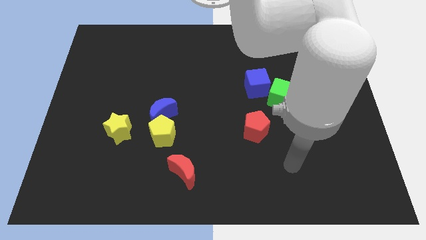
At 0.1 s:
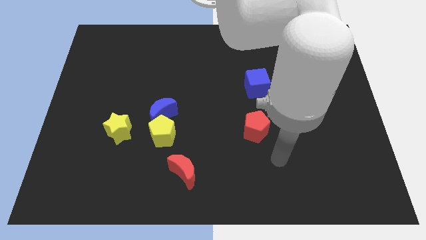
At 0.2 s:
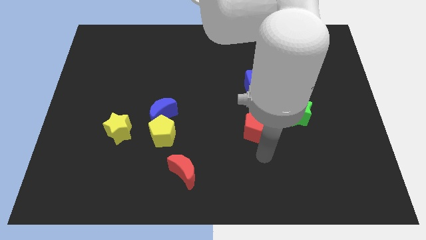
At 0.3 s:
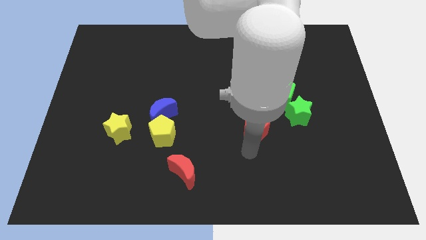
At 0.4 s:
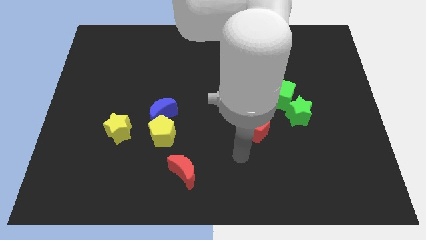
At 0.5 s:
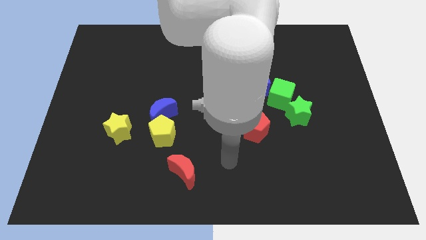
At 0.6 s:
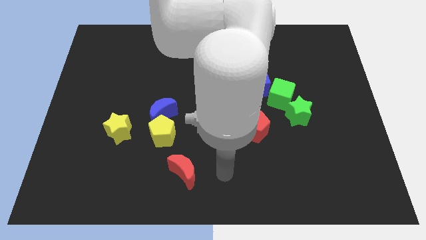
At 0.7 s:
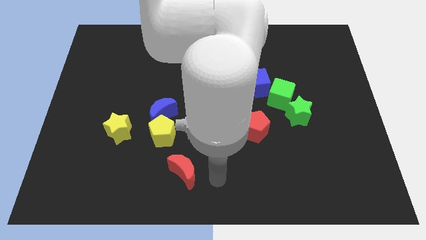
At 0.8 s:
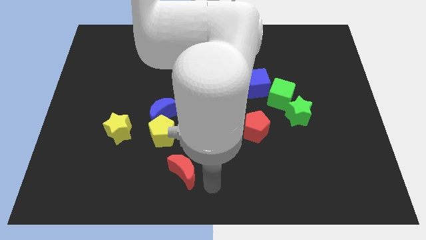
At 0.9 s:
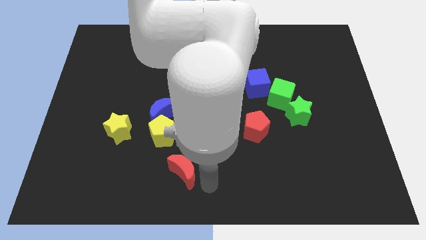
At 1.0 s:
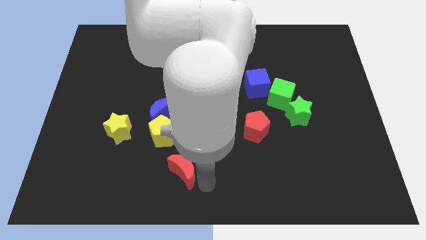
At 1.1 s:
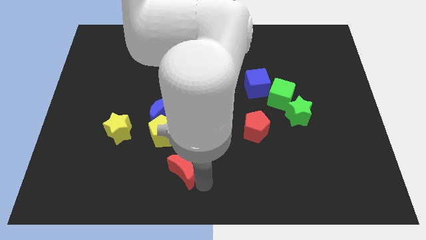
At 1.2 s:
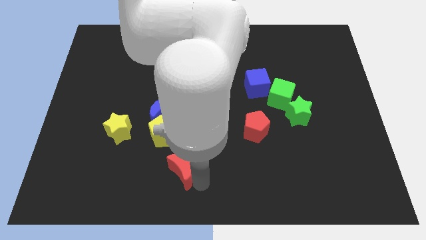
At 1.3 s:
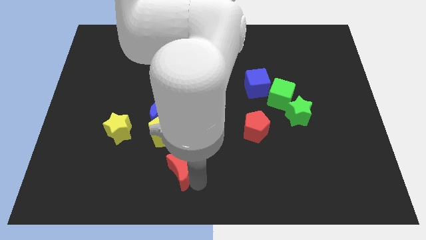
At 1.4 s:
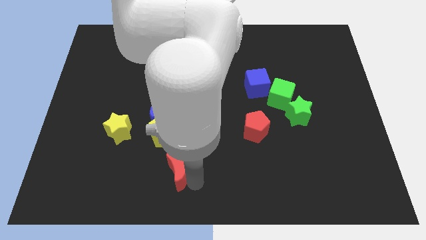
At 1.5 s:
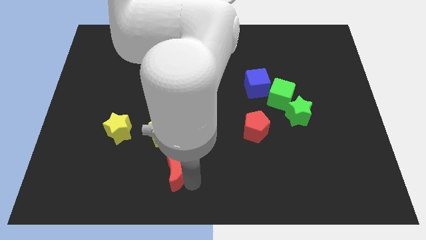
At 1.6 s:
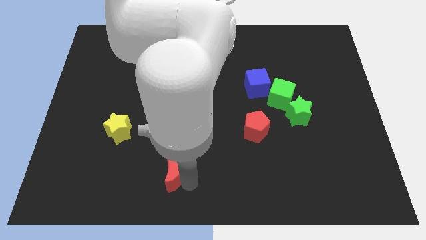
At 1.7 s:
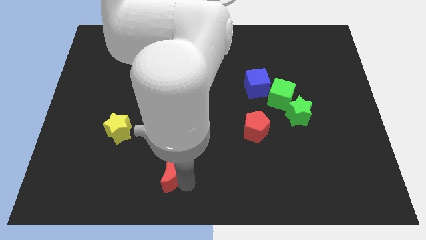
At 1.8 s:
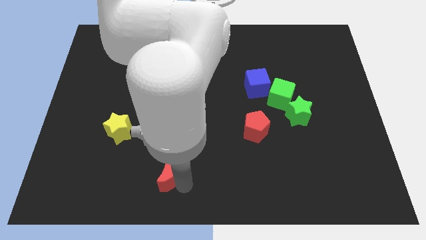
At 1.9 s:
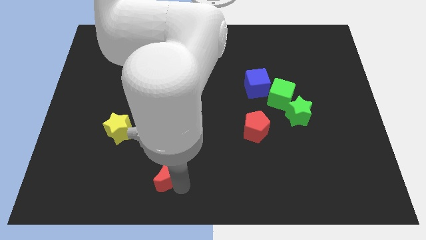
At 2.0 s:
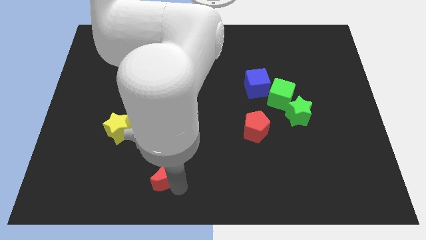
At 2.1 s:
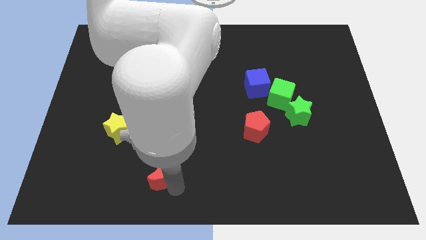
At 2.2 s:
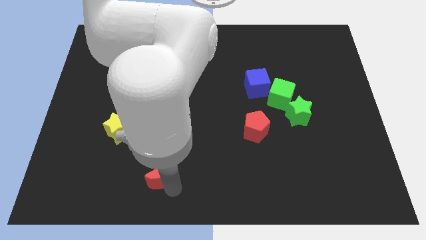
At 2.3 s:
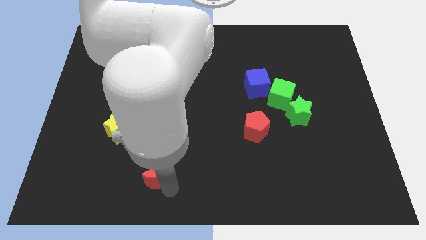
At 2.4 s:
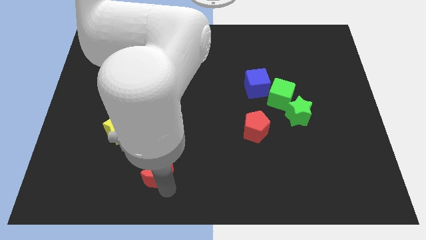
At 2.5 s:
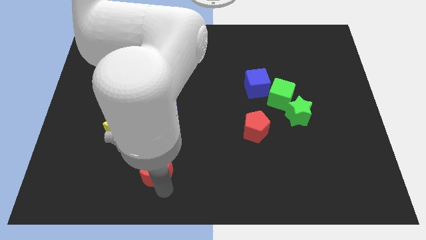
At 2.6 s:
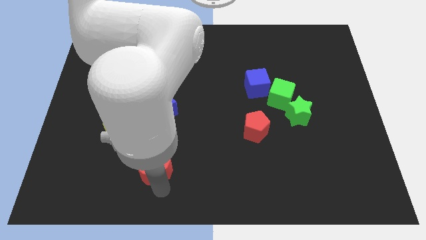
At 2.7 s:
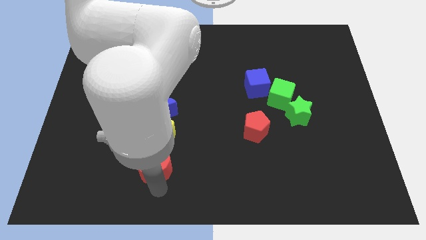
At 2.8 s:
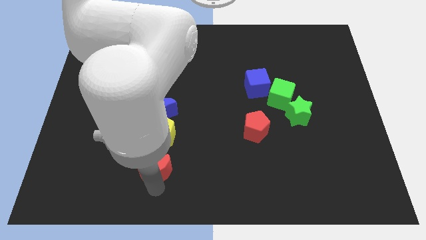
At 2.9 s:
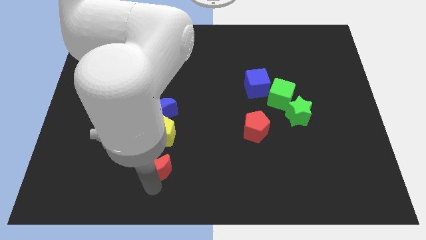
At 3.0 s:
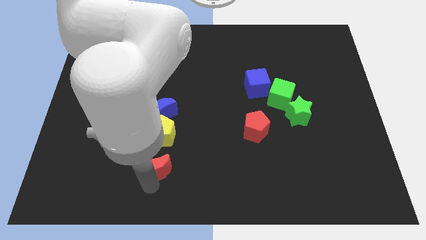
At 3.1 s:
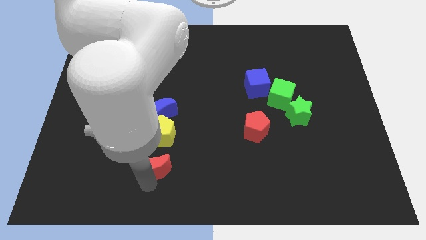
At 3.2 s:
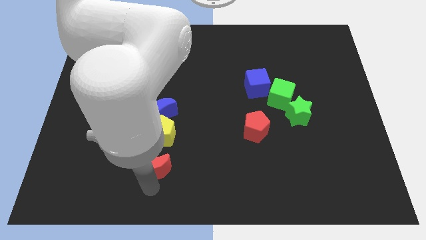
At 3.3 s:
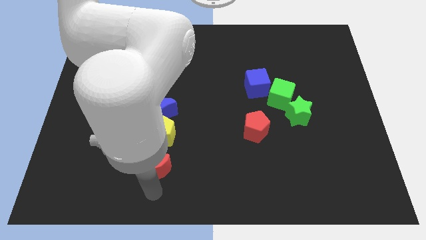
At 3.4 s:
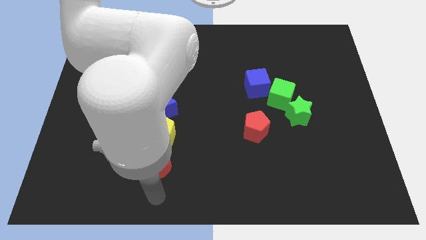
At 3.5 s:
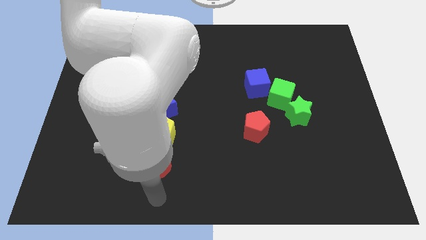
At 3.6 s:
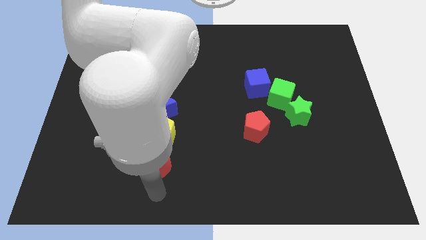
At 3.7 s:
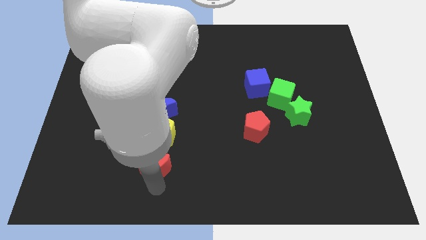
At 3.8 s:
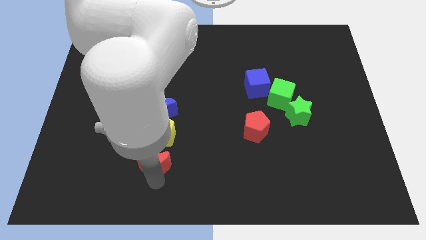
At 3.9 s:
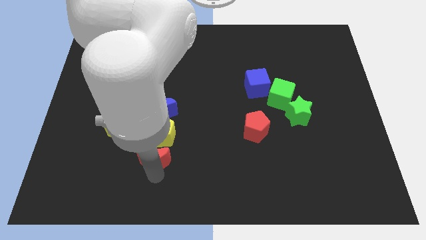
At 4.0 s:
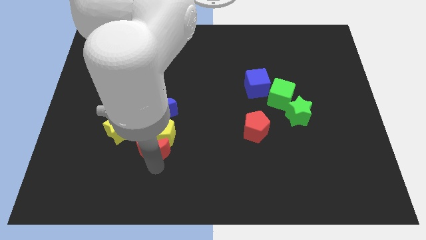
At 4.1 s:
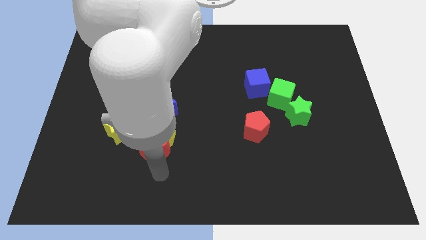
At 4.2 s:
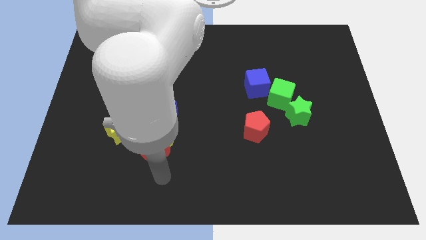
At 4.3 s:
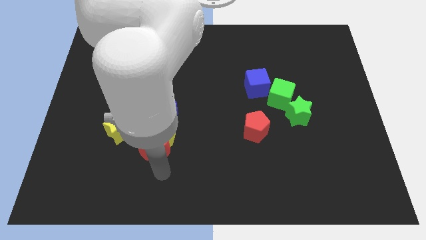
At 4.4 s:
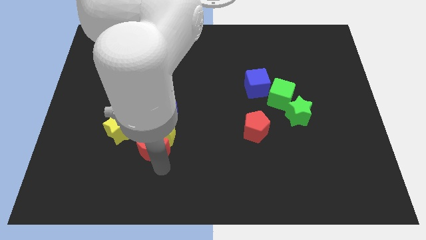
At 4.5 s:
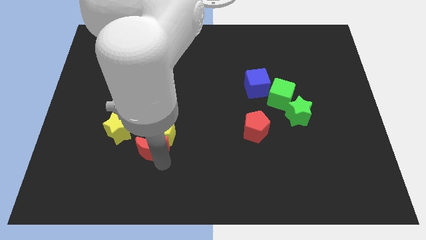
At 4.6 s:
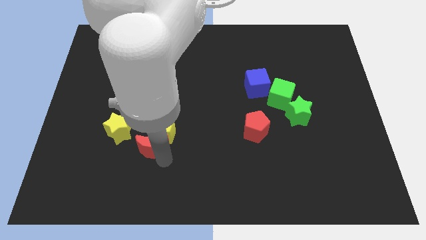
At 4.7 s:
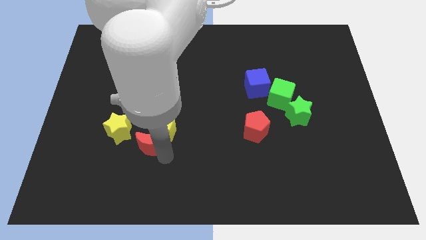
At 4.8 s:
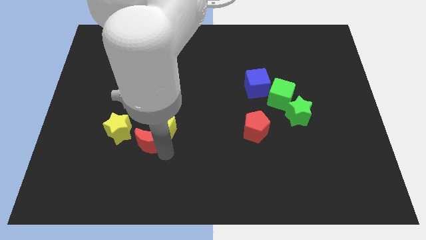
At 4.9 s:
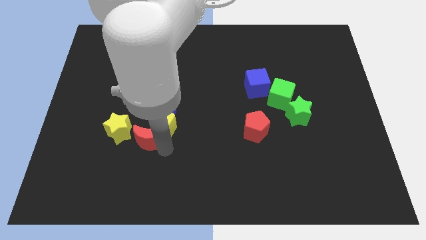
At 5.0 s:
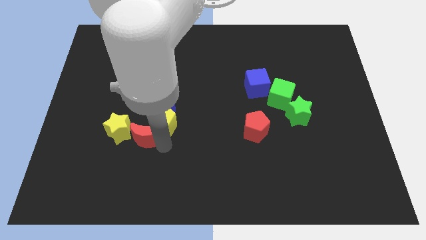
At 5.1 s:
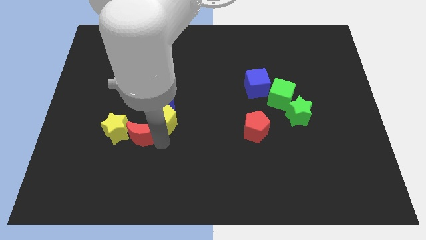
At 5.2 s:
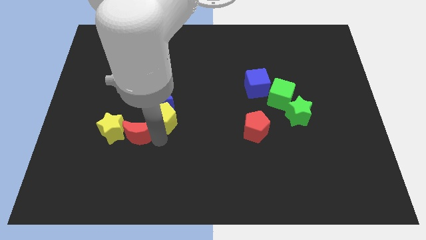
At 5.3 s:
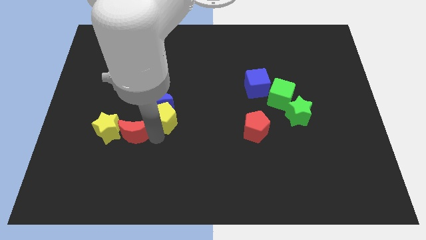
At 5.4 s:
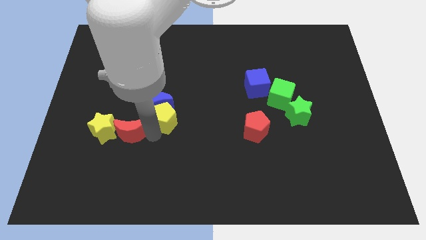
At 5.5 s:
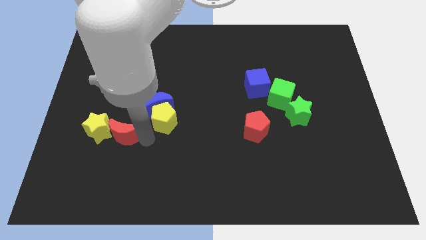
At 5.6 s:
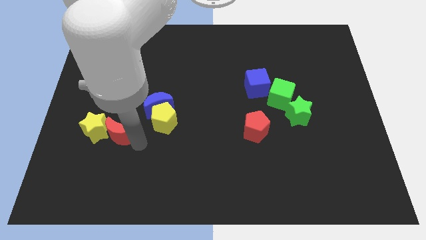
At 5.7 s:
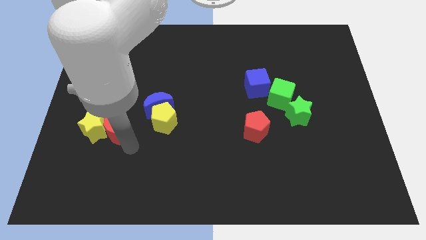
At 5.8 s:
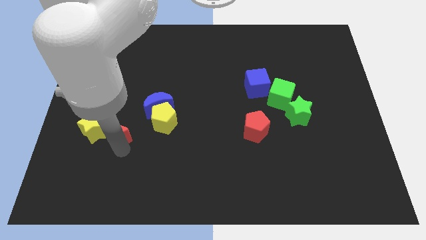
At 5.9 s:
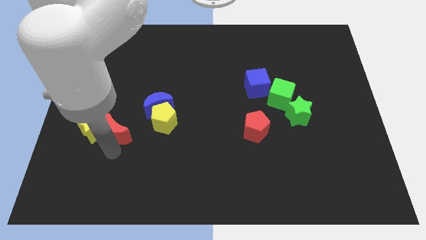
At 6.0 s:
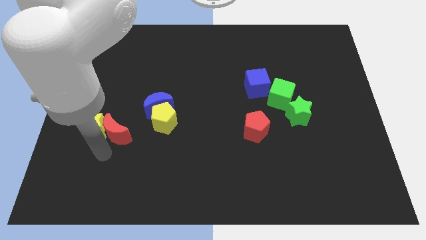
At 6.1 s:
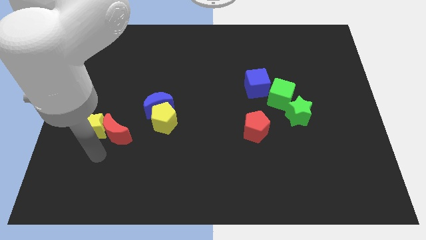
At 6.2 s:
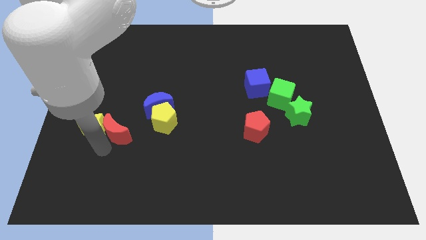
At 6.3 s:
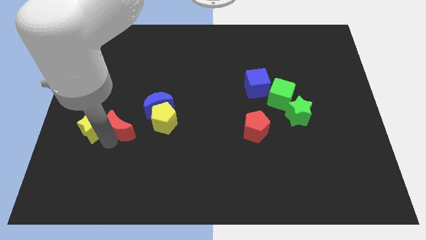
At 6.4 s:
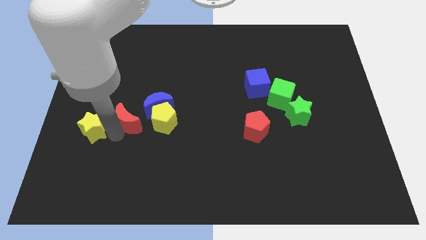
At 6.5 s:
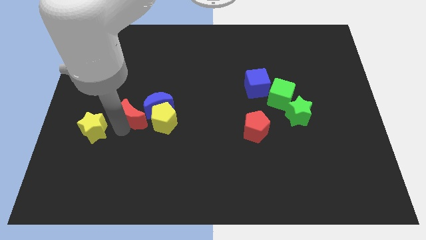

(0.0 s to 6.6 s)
push the red moon diagonally up and to the left of the yellow pentagon

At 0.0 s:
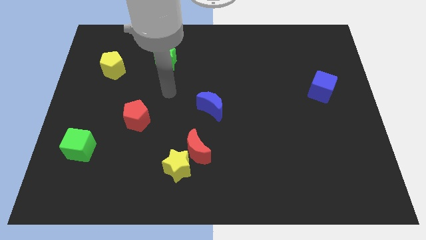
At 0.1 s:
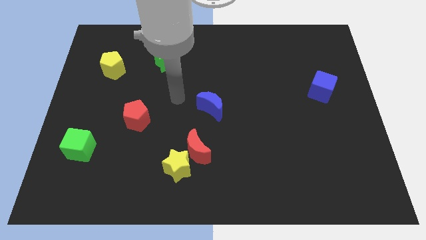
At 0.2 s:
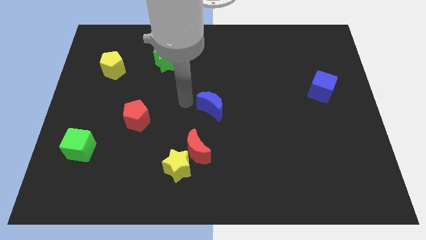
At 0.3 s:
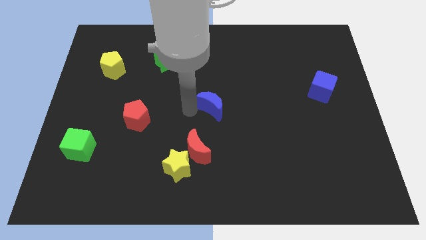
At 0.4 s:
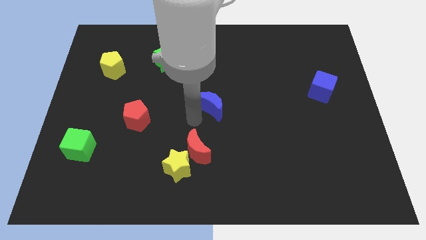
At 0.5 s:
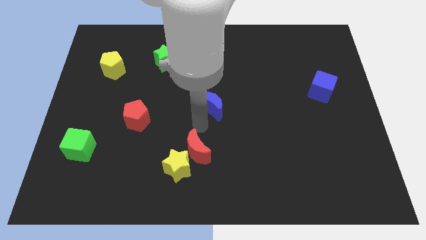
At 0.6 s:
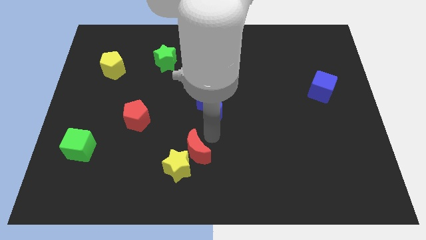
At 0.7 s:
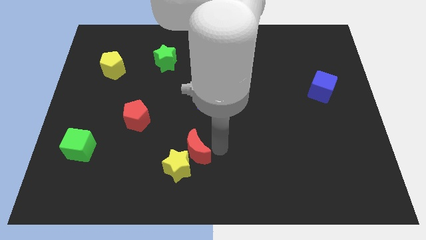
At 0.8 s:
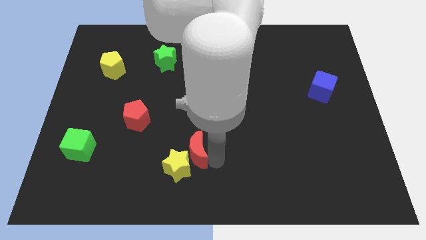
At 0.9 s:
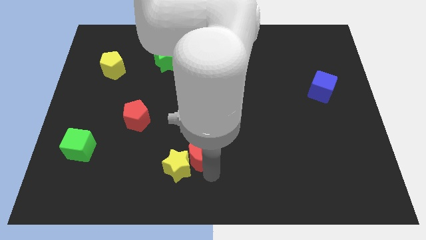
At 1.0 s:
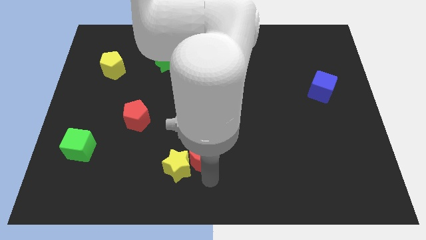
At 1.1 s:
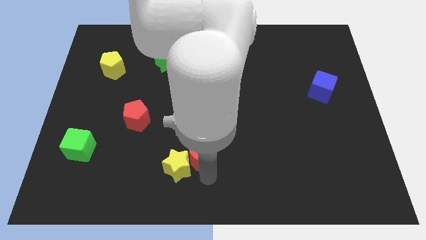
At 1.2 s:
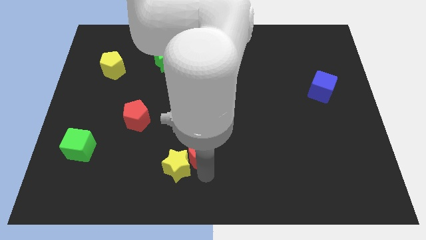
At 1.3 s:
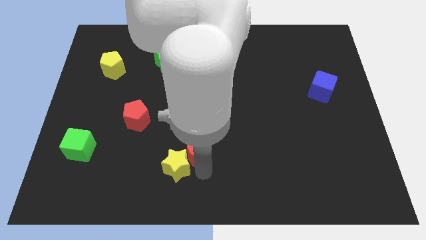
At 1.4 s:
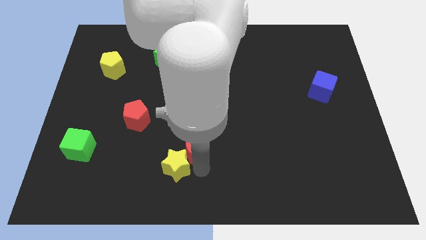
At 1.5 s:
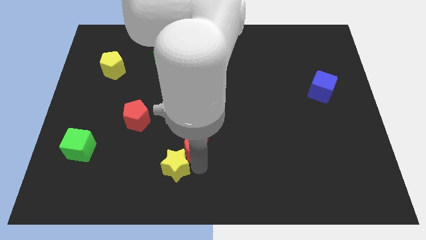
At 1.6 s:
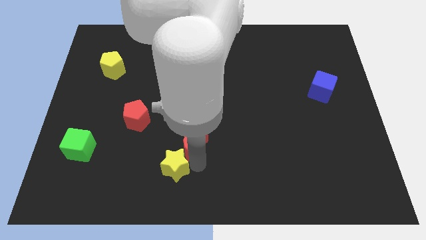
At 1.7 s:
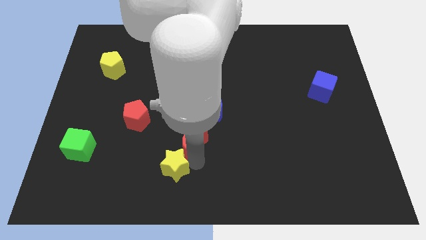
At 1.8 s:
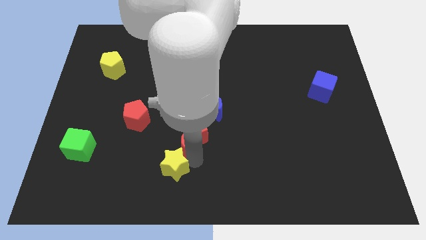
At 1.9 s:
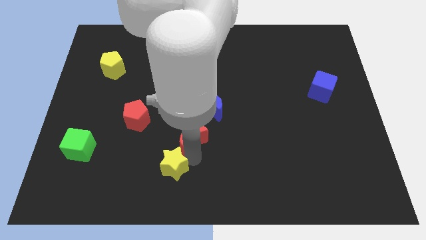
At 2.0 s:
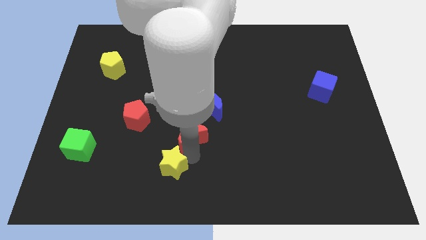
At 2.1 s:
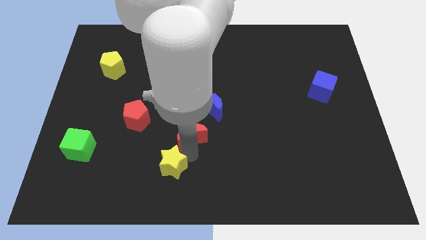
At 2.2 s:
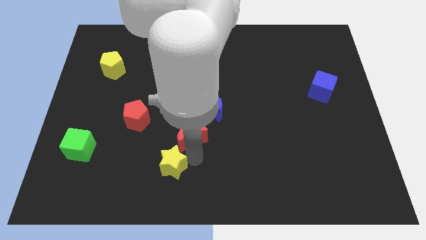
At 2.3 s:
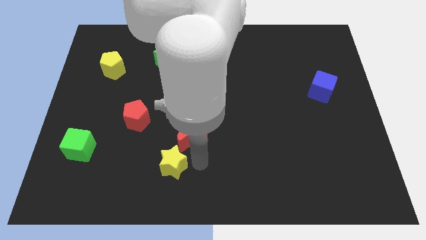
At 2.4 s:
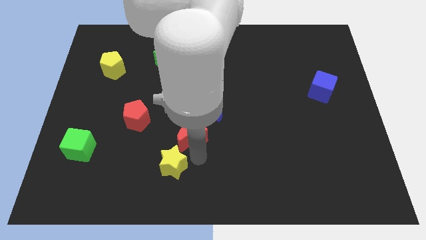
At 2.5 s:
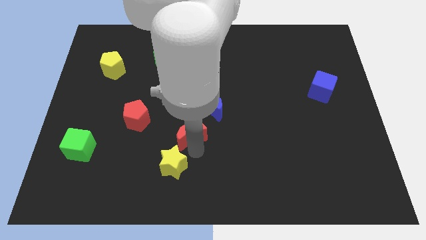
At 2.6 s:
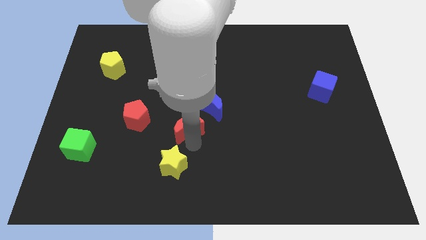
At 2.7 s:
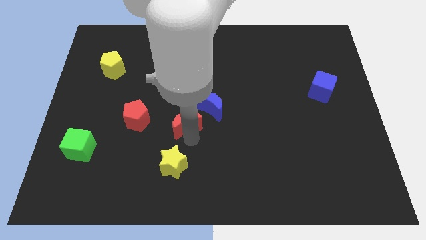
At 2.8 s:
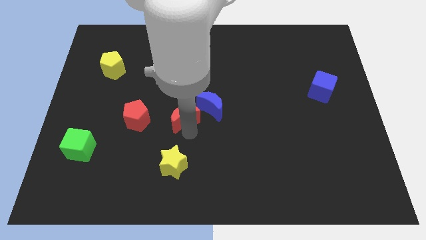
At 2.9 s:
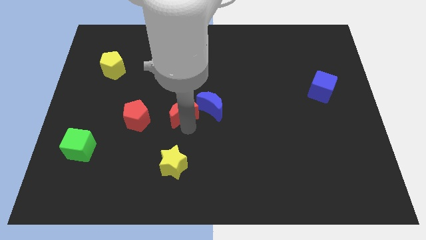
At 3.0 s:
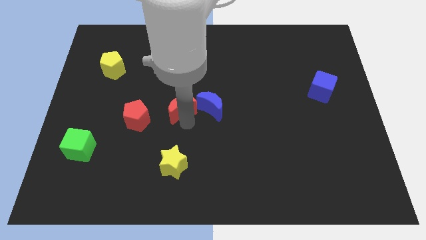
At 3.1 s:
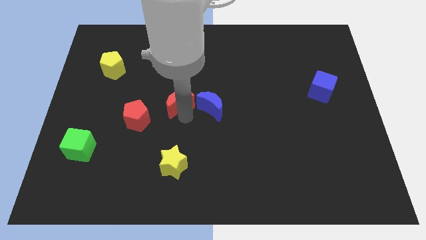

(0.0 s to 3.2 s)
put the red moon to the bottom of the green star
